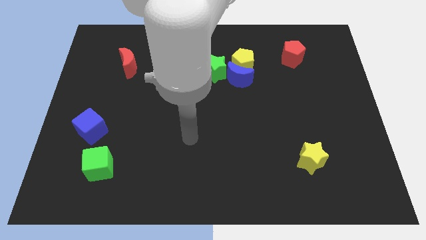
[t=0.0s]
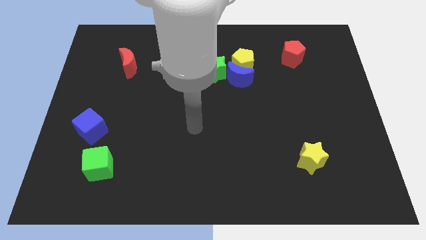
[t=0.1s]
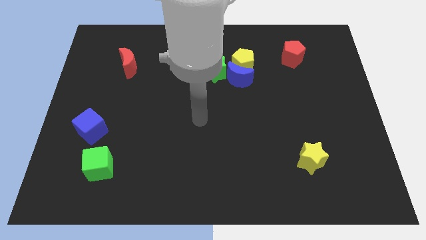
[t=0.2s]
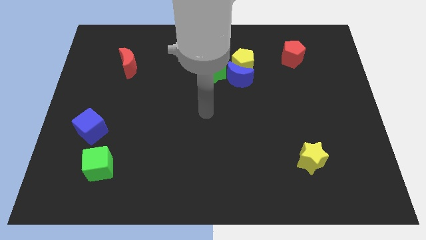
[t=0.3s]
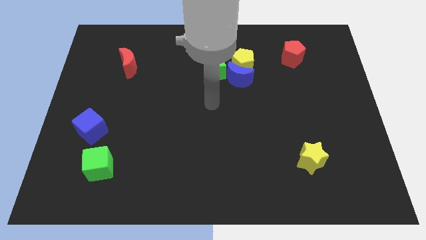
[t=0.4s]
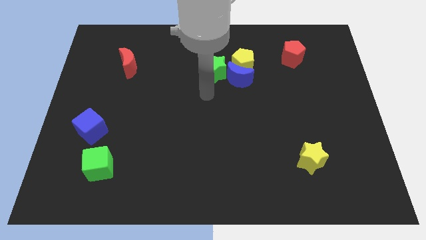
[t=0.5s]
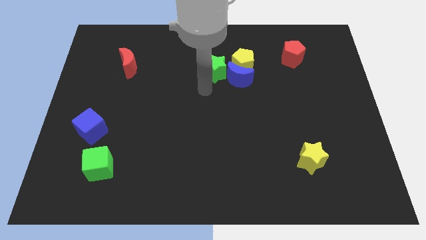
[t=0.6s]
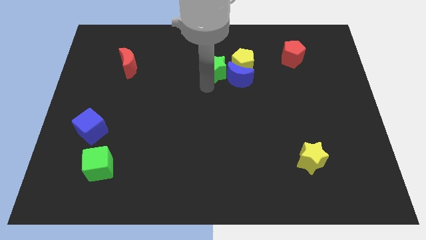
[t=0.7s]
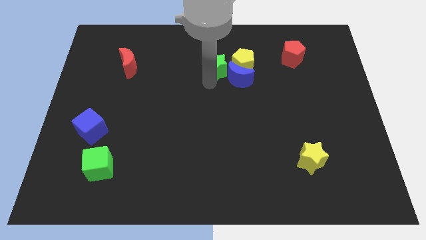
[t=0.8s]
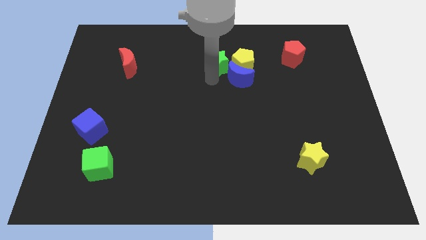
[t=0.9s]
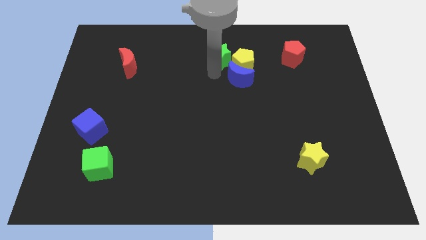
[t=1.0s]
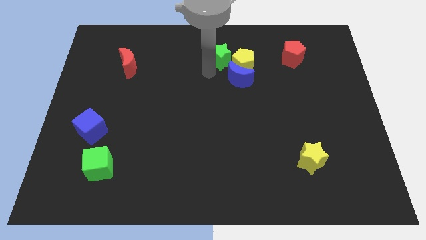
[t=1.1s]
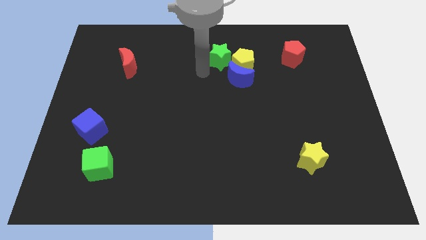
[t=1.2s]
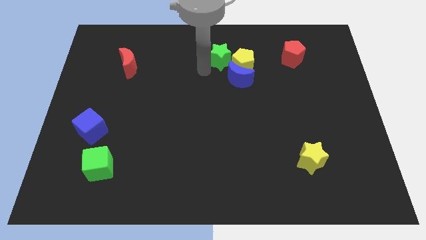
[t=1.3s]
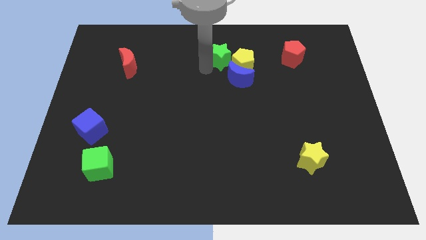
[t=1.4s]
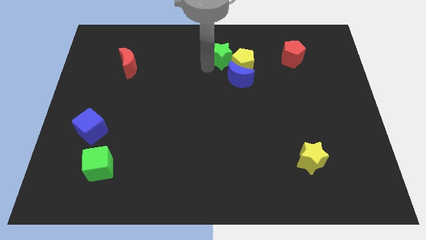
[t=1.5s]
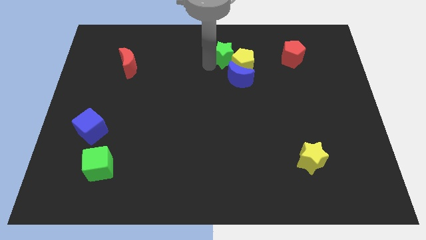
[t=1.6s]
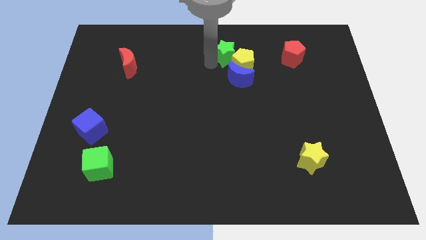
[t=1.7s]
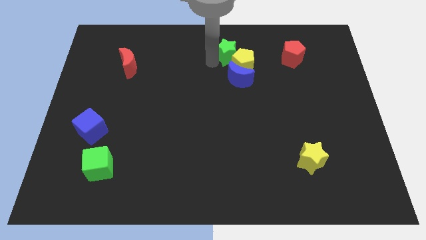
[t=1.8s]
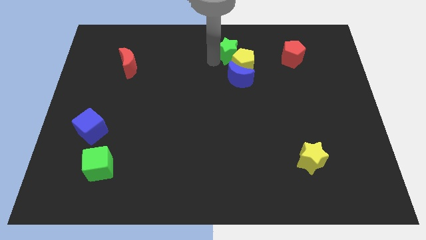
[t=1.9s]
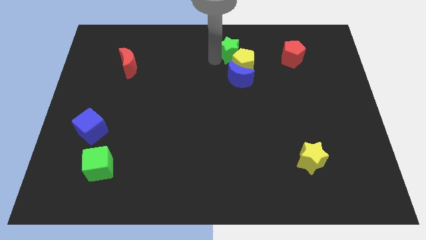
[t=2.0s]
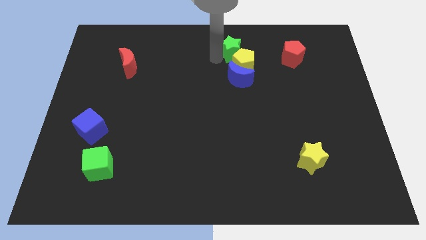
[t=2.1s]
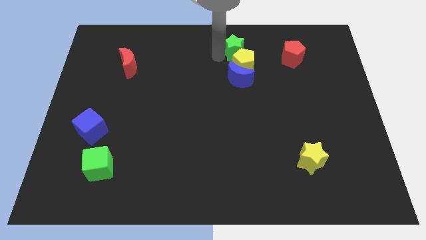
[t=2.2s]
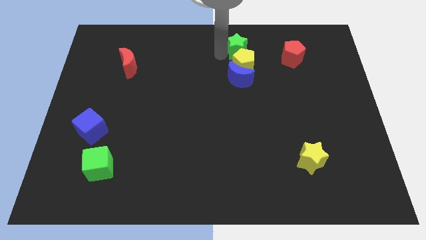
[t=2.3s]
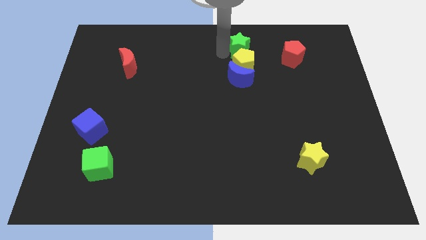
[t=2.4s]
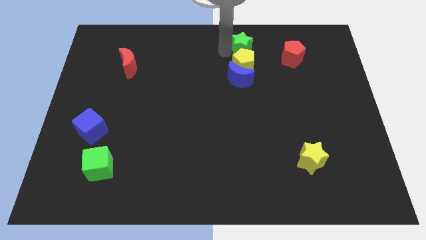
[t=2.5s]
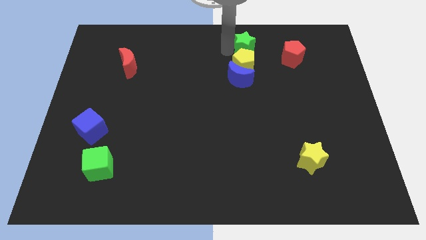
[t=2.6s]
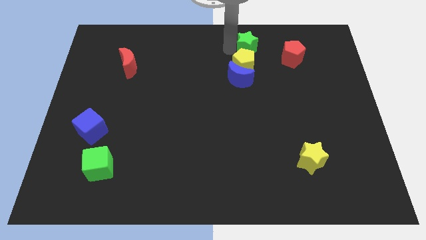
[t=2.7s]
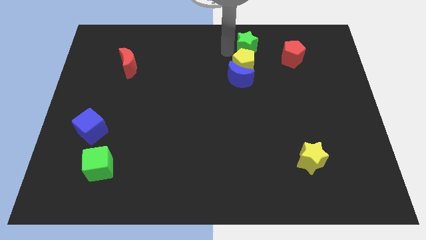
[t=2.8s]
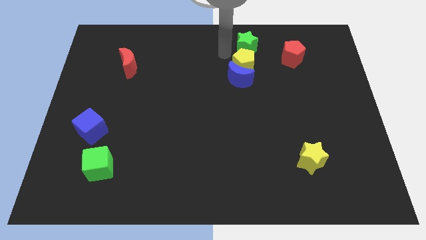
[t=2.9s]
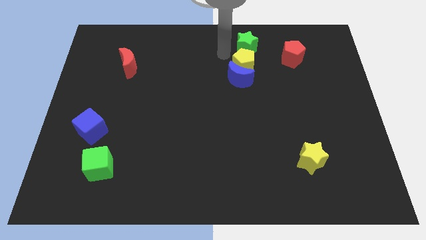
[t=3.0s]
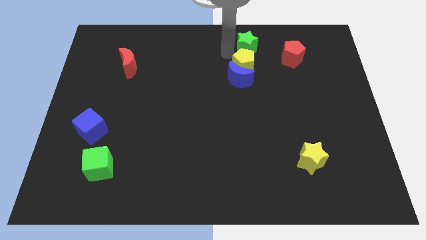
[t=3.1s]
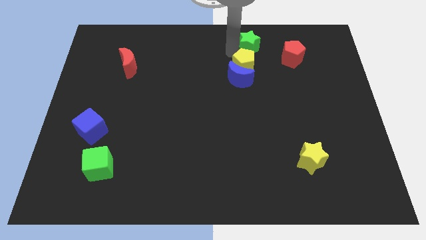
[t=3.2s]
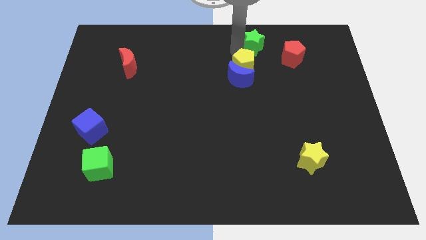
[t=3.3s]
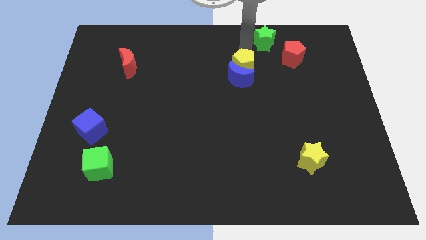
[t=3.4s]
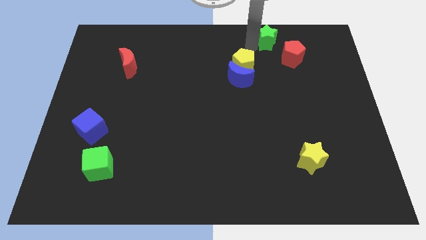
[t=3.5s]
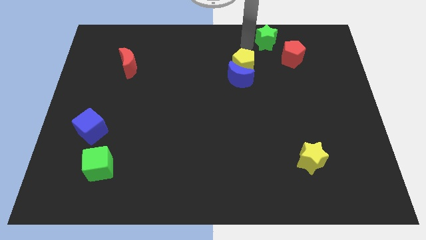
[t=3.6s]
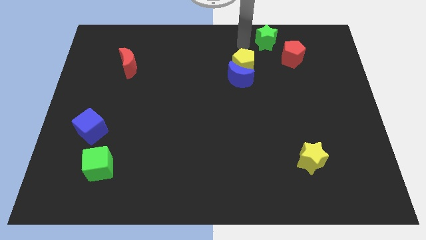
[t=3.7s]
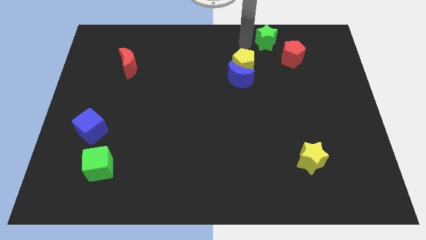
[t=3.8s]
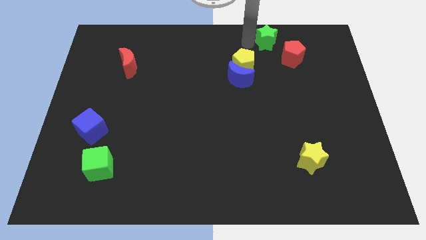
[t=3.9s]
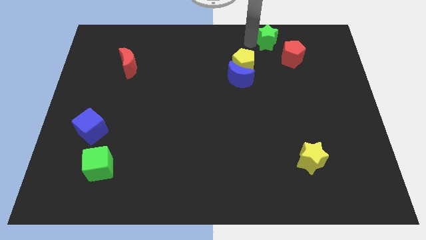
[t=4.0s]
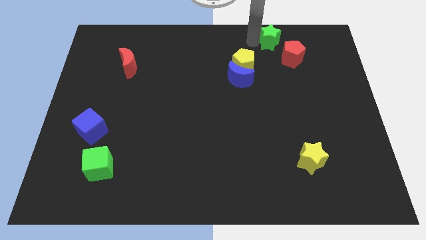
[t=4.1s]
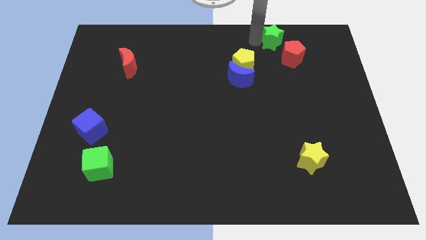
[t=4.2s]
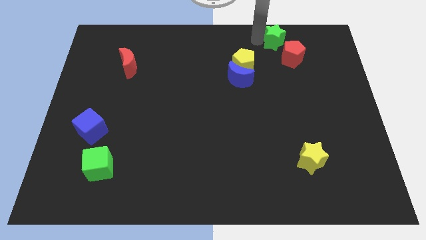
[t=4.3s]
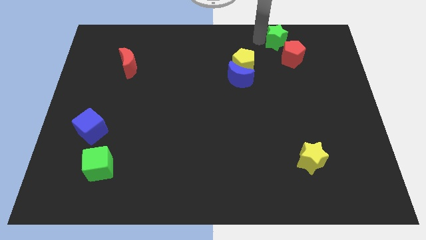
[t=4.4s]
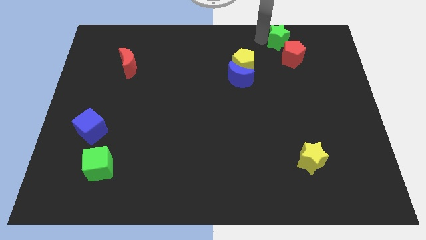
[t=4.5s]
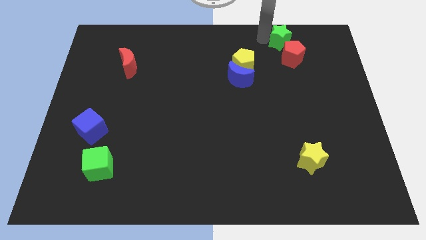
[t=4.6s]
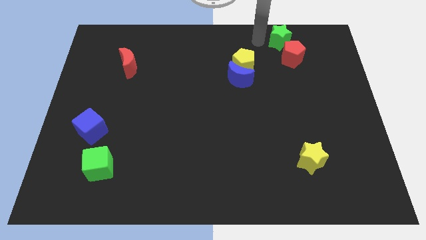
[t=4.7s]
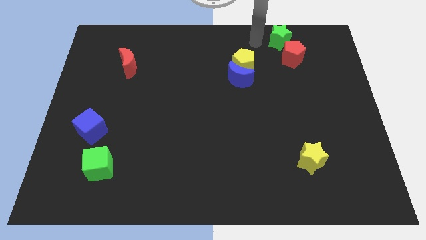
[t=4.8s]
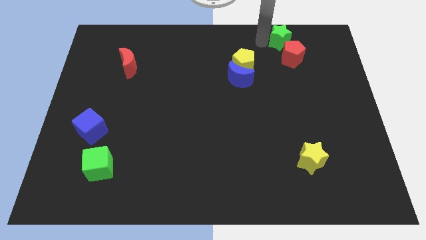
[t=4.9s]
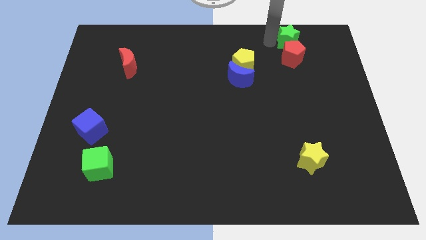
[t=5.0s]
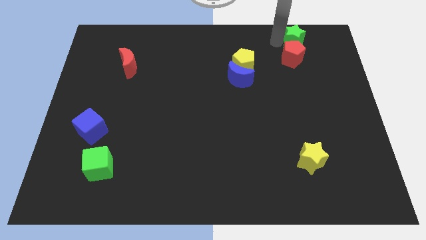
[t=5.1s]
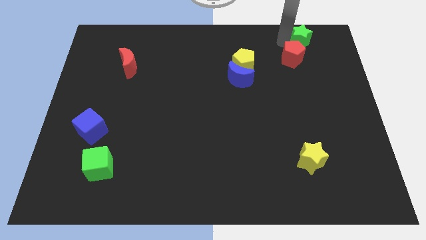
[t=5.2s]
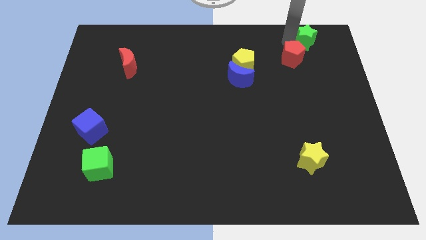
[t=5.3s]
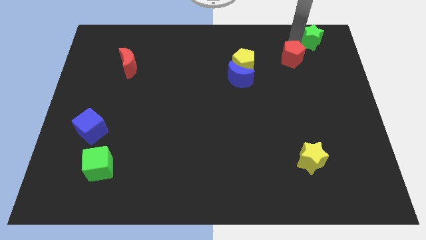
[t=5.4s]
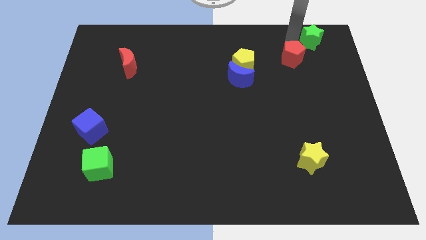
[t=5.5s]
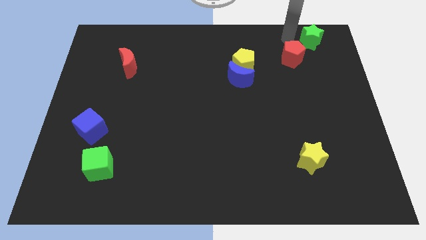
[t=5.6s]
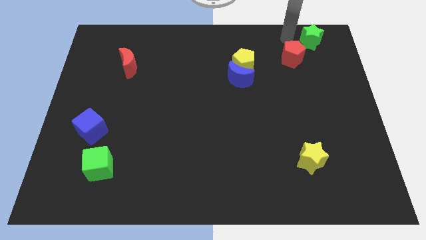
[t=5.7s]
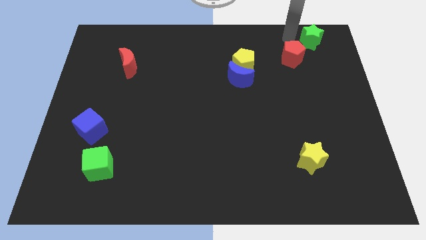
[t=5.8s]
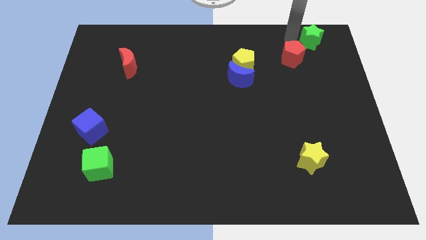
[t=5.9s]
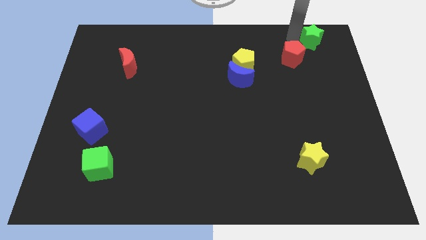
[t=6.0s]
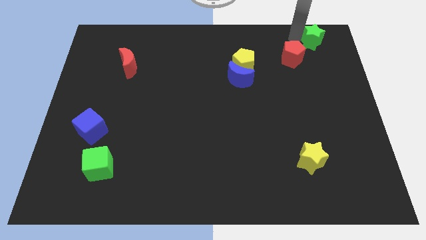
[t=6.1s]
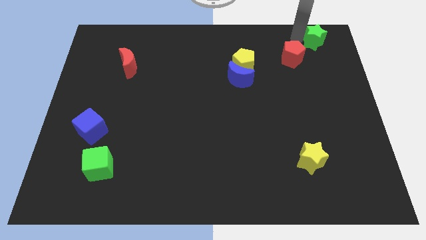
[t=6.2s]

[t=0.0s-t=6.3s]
slide the green star to the top right corner
